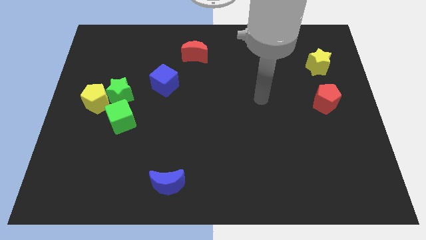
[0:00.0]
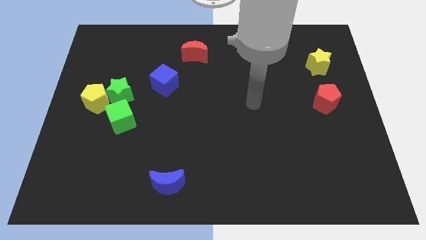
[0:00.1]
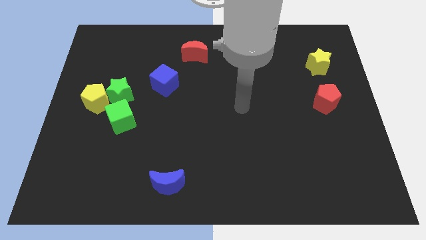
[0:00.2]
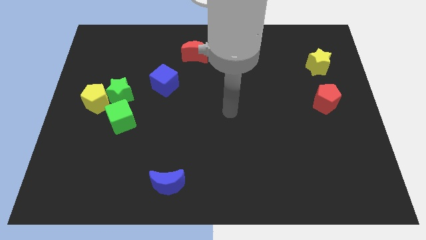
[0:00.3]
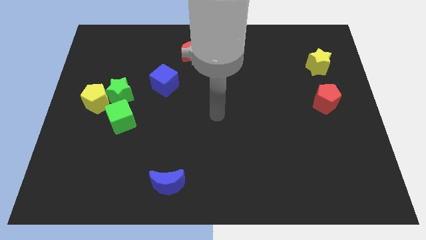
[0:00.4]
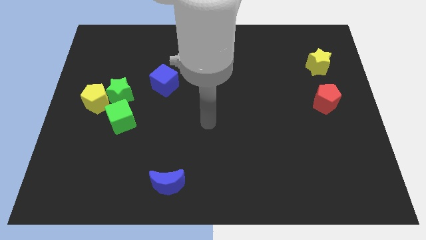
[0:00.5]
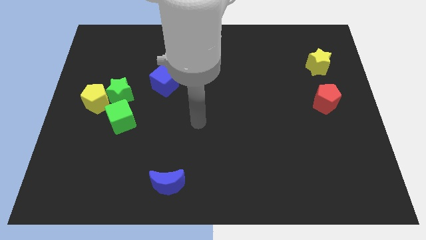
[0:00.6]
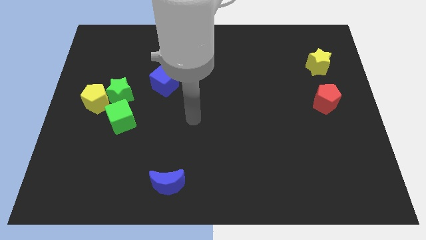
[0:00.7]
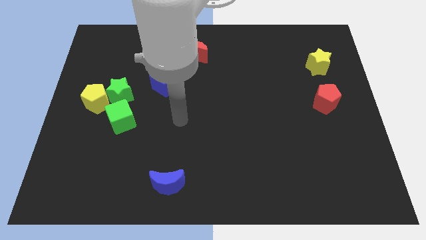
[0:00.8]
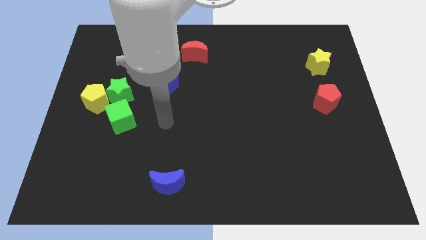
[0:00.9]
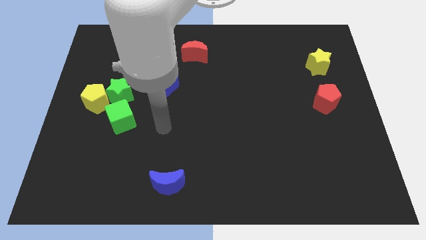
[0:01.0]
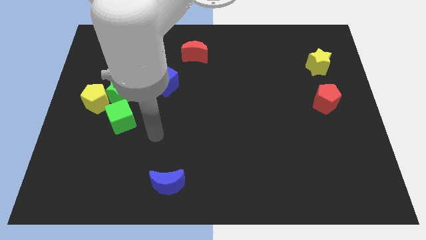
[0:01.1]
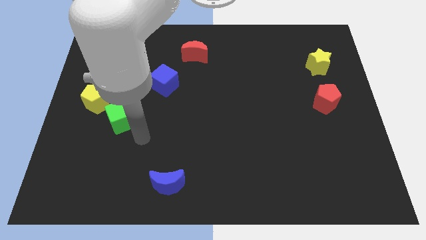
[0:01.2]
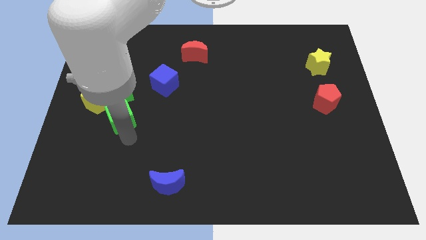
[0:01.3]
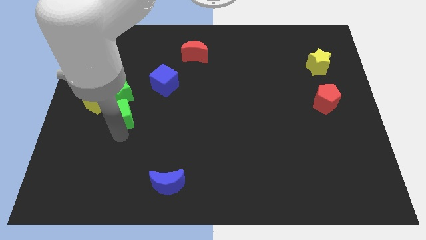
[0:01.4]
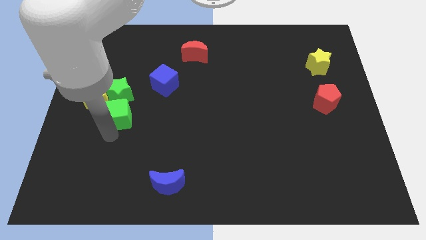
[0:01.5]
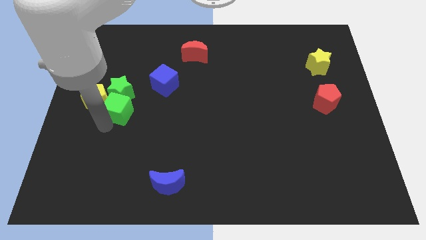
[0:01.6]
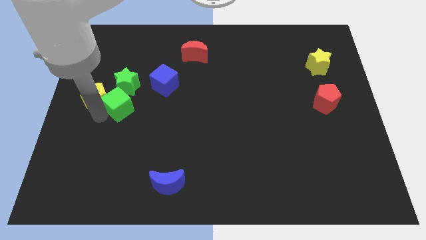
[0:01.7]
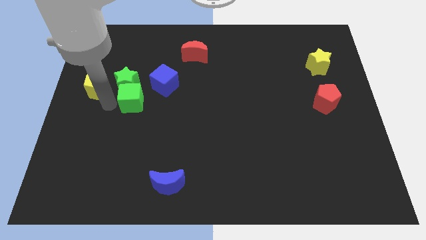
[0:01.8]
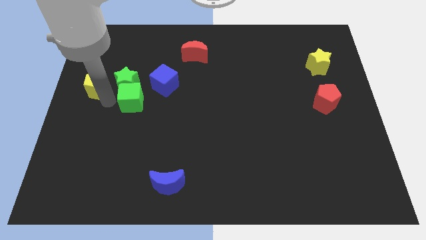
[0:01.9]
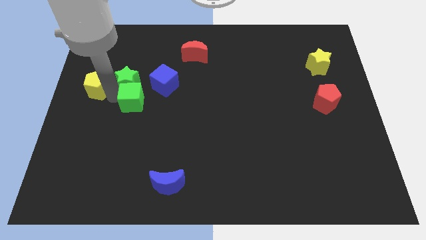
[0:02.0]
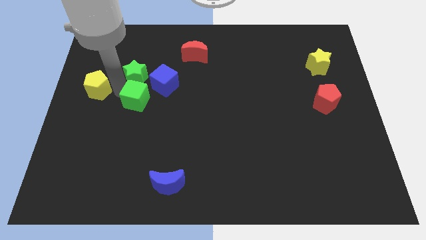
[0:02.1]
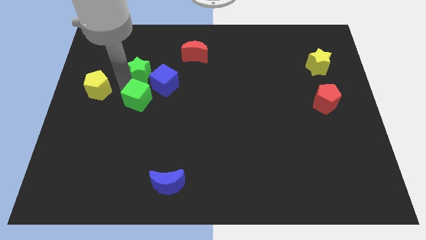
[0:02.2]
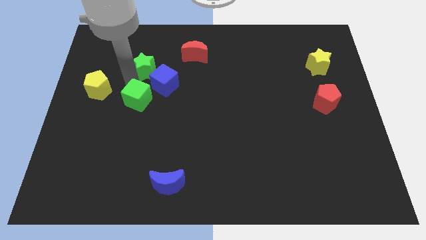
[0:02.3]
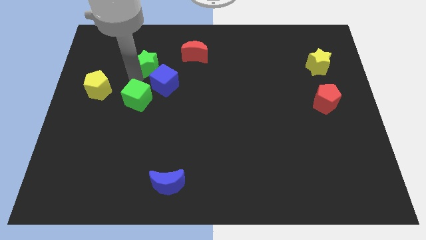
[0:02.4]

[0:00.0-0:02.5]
separate the green star from the yellow pentagon and green cube

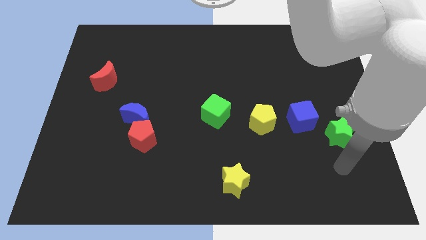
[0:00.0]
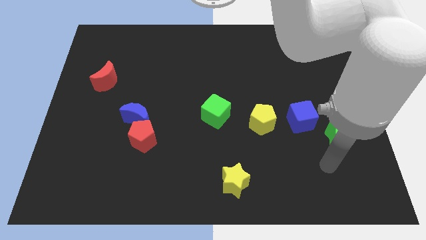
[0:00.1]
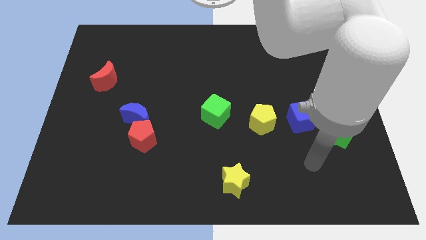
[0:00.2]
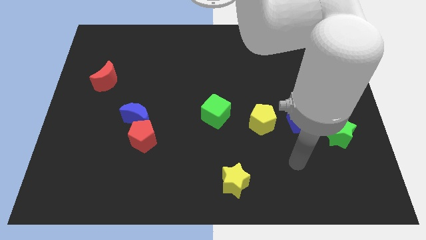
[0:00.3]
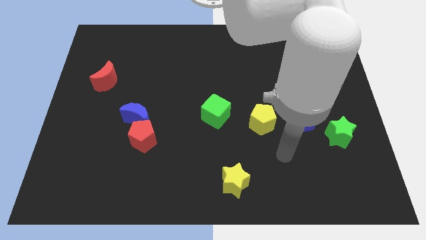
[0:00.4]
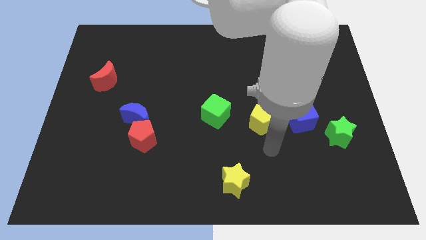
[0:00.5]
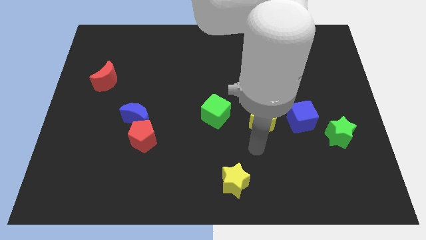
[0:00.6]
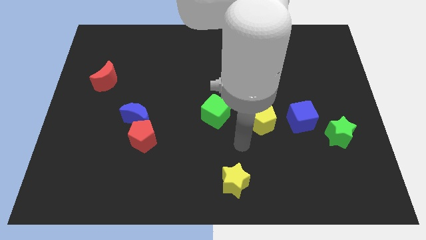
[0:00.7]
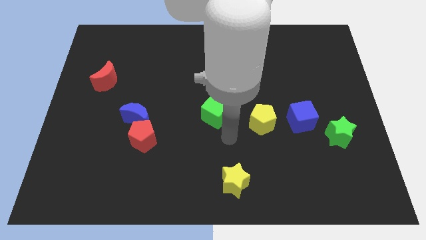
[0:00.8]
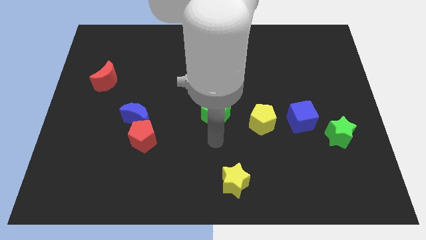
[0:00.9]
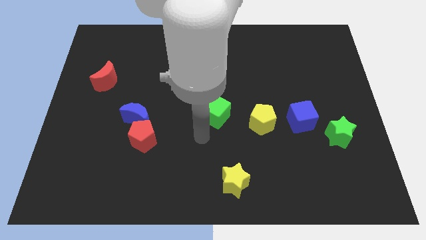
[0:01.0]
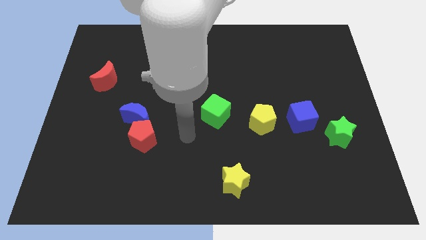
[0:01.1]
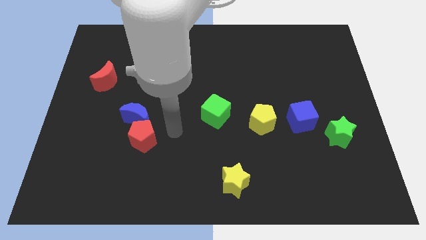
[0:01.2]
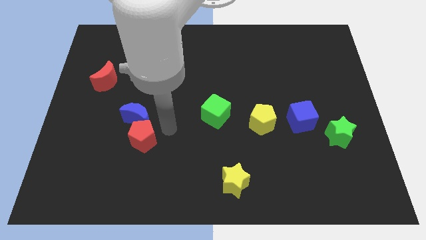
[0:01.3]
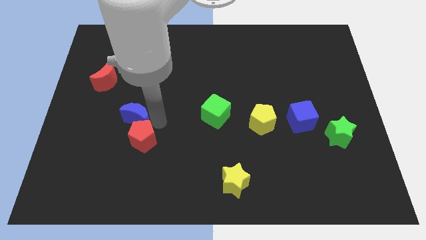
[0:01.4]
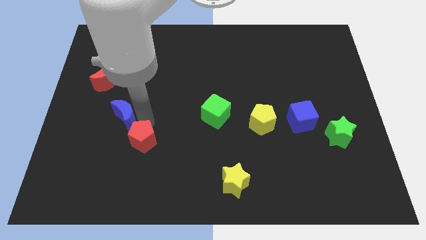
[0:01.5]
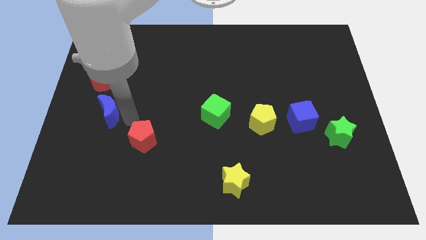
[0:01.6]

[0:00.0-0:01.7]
separate the red pentagon from the blue moon

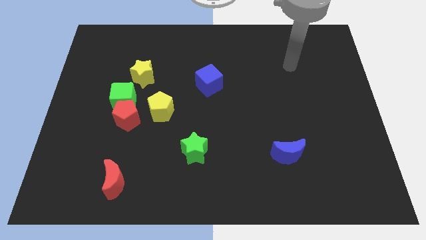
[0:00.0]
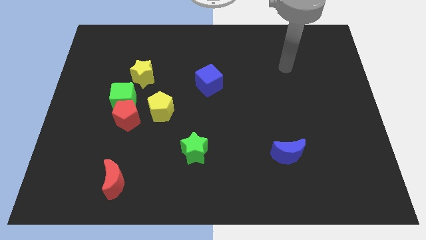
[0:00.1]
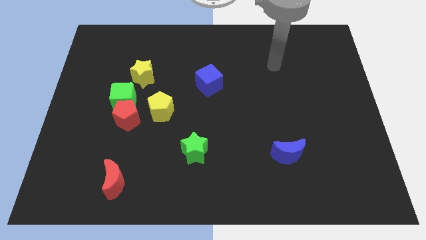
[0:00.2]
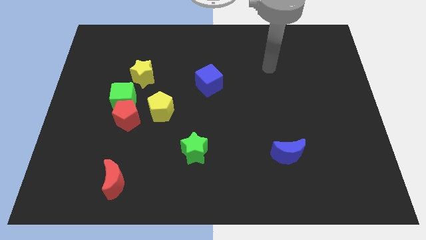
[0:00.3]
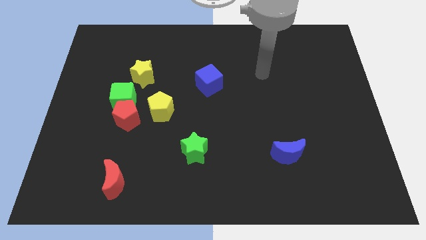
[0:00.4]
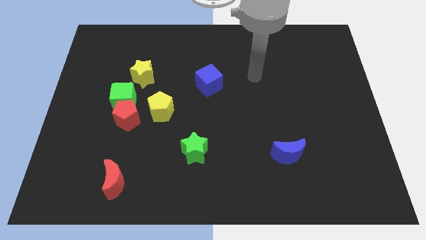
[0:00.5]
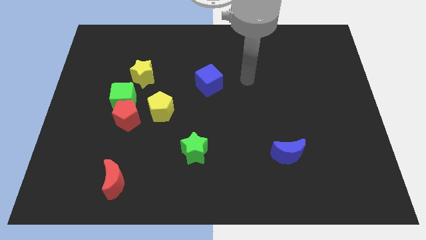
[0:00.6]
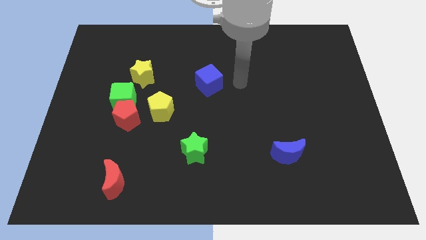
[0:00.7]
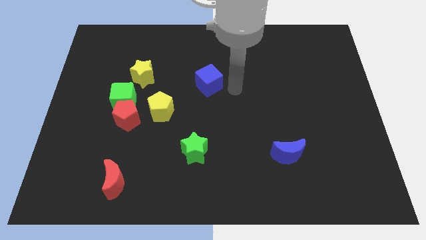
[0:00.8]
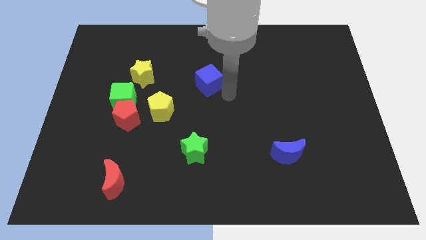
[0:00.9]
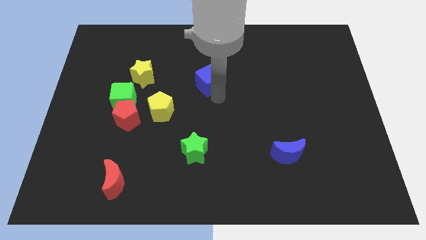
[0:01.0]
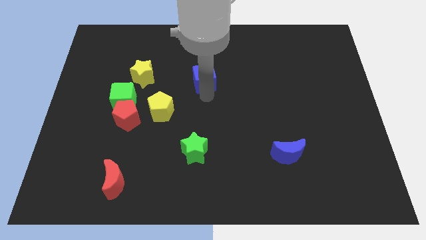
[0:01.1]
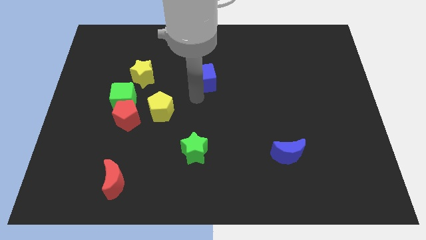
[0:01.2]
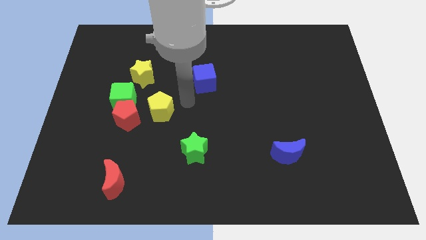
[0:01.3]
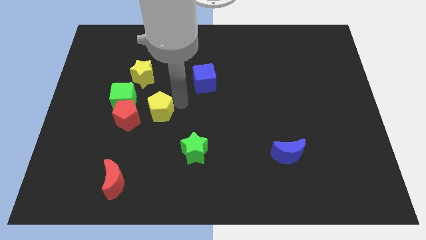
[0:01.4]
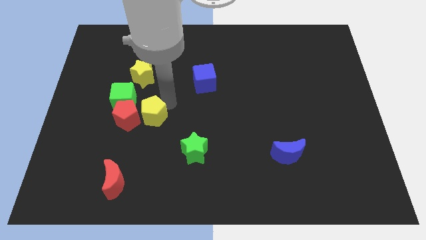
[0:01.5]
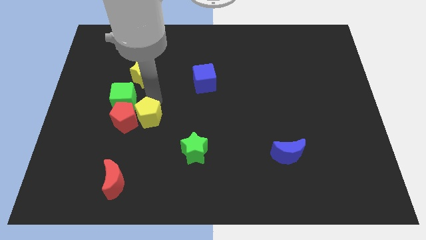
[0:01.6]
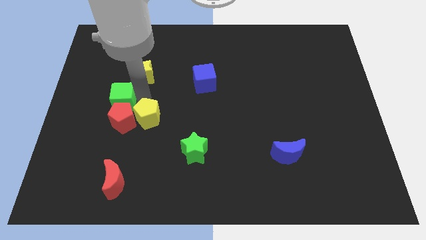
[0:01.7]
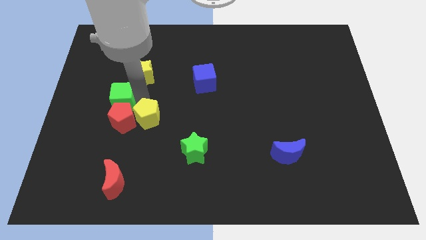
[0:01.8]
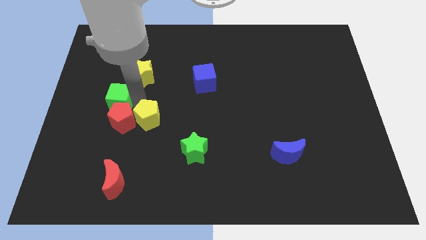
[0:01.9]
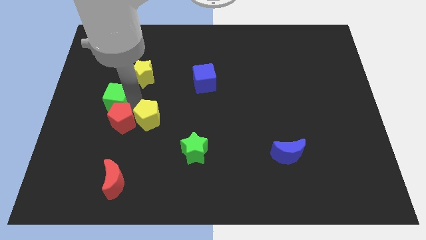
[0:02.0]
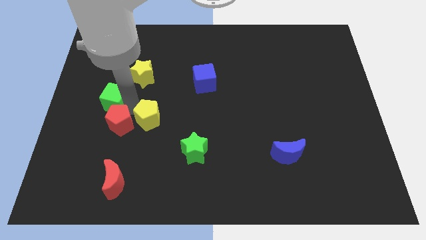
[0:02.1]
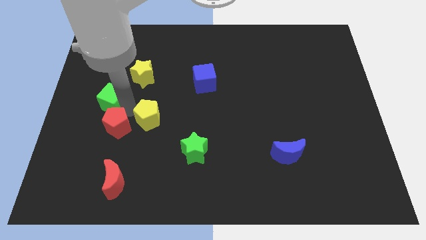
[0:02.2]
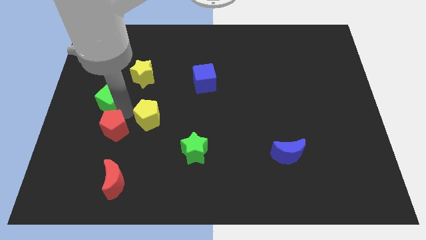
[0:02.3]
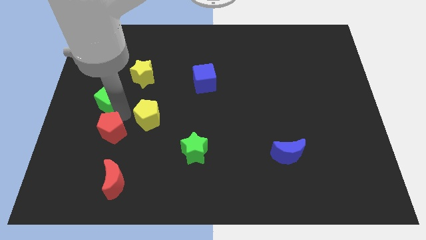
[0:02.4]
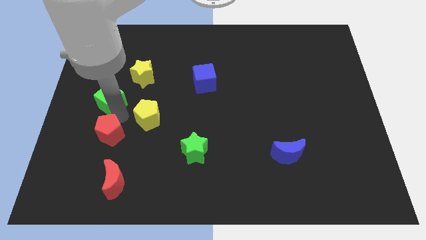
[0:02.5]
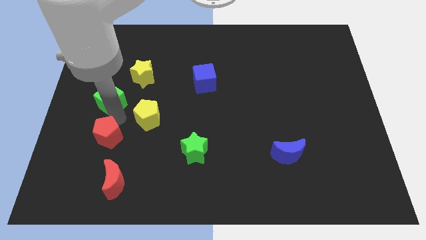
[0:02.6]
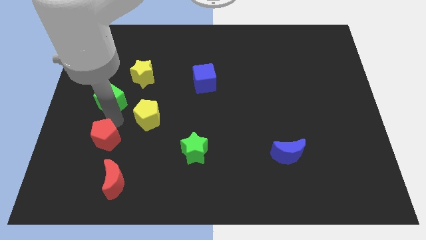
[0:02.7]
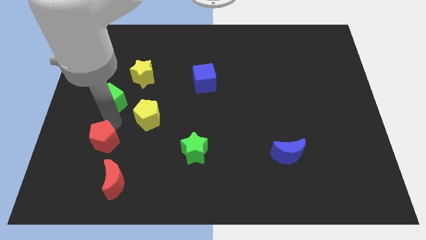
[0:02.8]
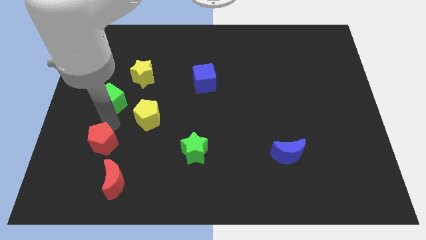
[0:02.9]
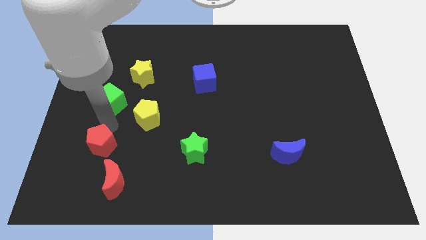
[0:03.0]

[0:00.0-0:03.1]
separate the red pentagon from the green cube and yellow pentagon

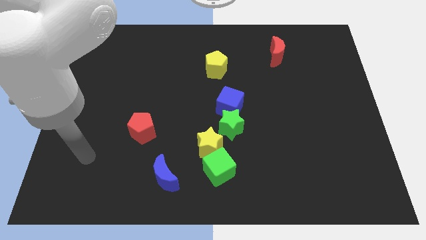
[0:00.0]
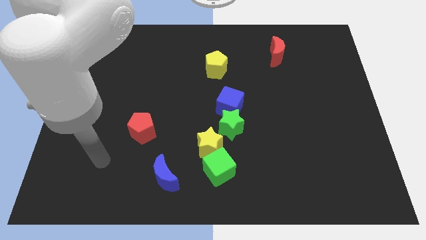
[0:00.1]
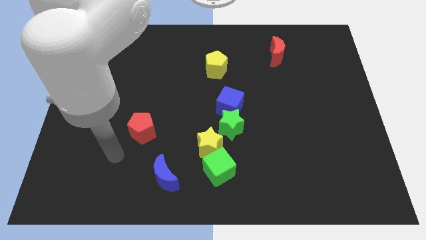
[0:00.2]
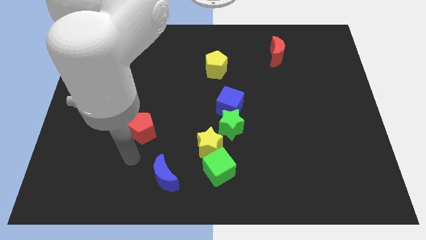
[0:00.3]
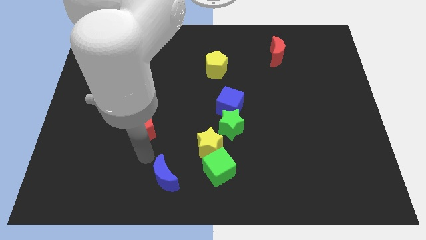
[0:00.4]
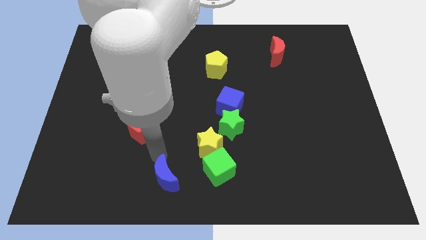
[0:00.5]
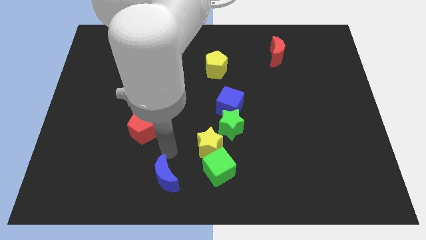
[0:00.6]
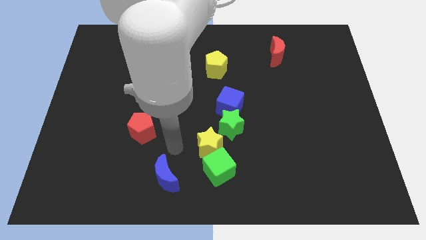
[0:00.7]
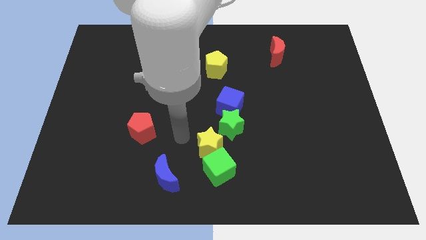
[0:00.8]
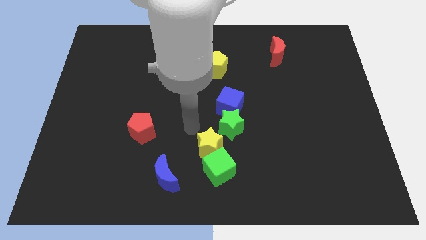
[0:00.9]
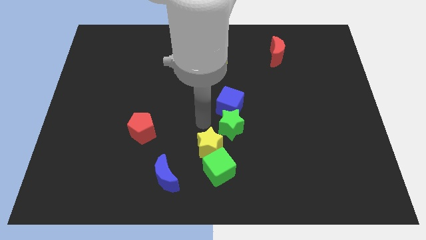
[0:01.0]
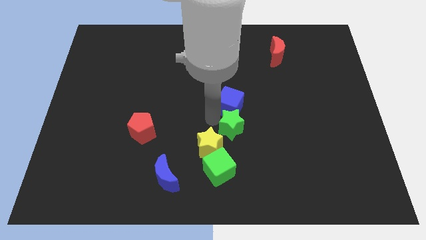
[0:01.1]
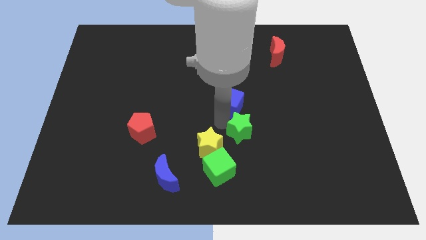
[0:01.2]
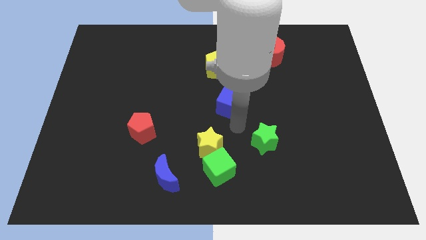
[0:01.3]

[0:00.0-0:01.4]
separate the blue cube from the green star

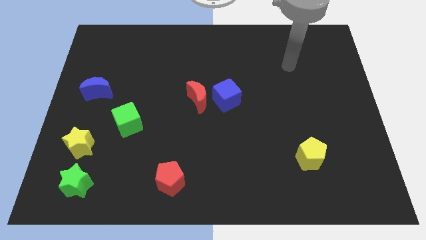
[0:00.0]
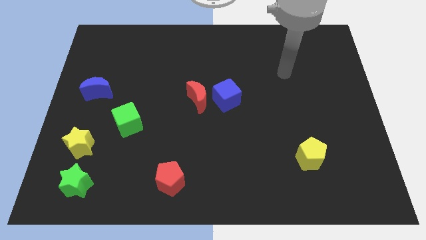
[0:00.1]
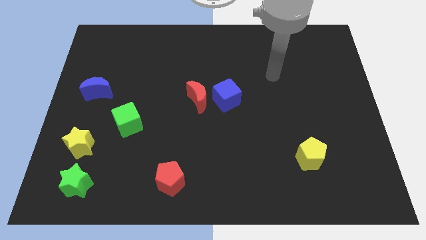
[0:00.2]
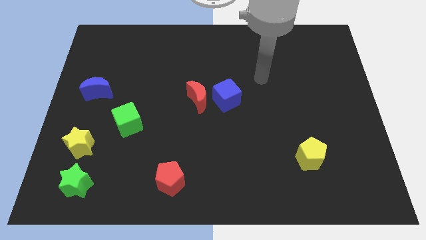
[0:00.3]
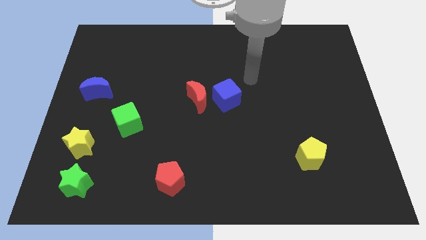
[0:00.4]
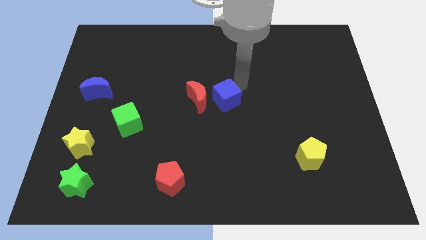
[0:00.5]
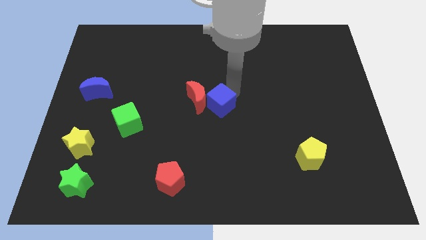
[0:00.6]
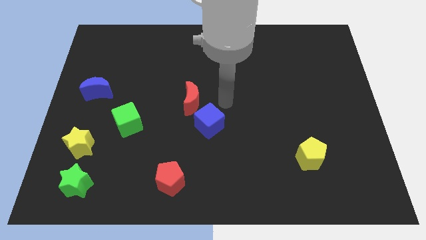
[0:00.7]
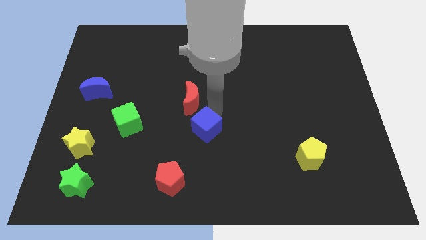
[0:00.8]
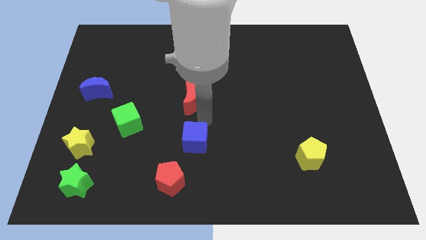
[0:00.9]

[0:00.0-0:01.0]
move the red moon away from the blue cube
